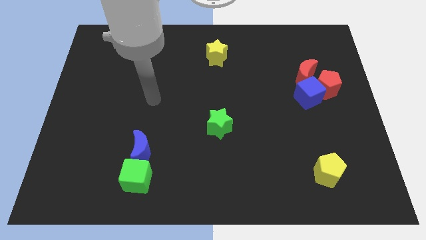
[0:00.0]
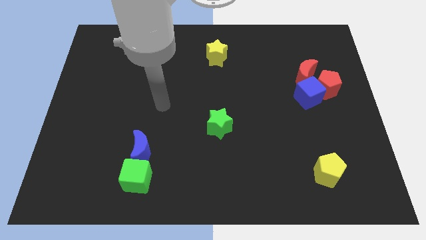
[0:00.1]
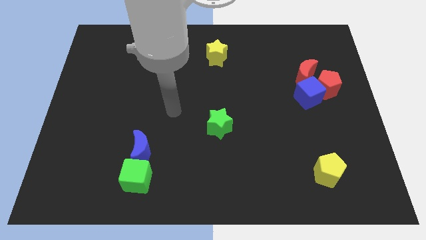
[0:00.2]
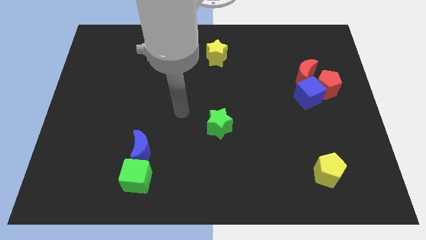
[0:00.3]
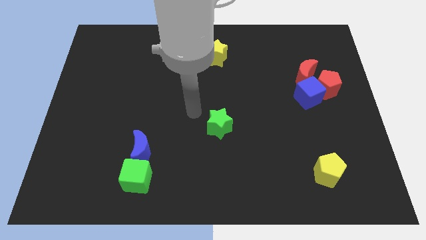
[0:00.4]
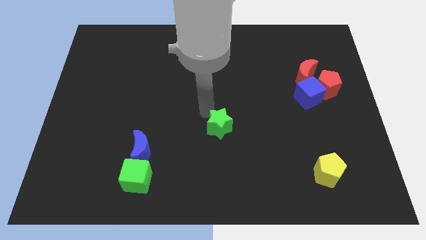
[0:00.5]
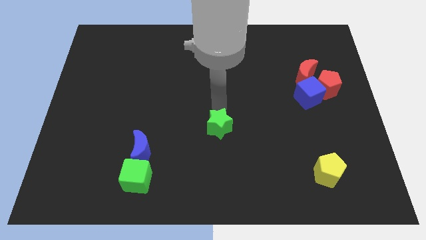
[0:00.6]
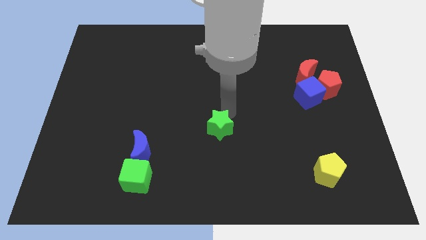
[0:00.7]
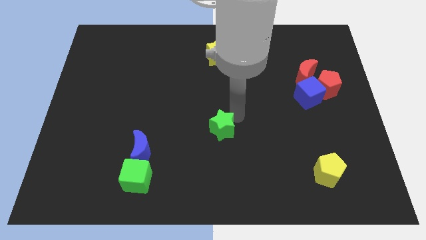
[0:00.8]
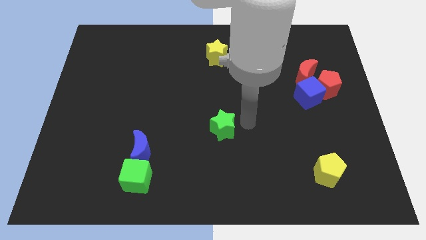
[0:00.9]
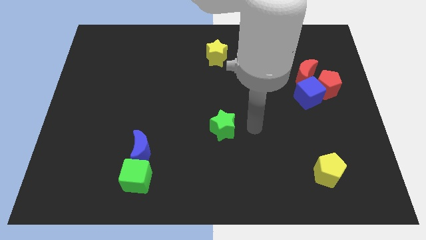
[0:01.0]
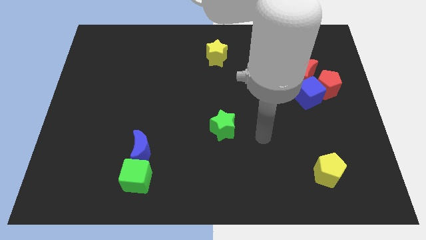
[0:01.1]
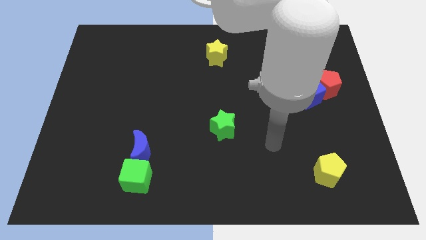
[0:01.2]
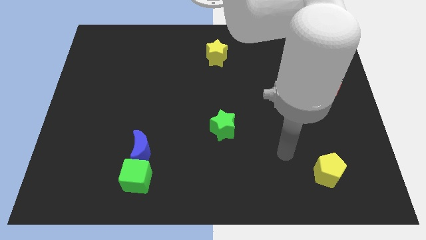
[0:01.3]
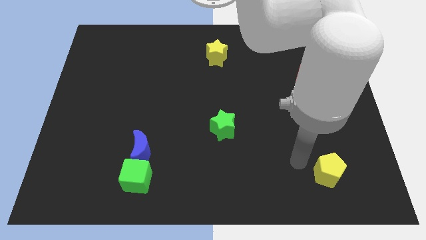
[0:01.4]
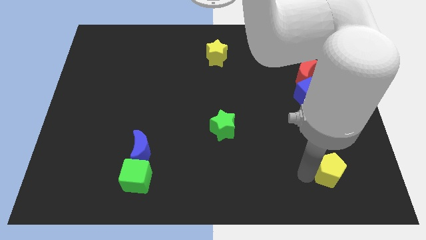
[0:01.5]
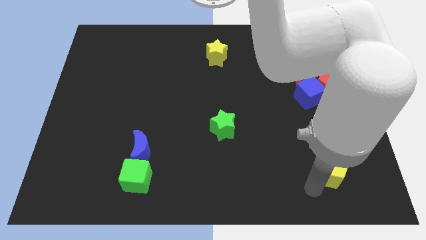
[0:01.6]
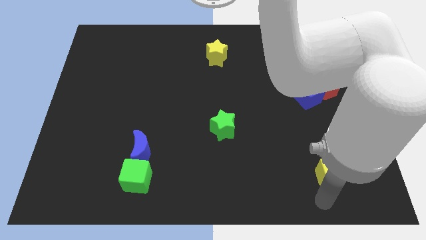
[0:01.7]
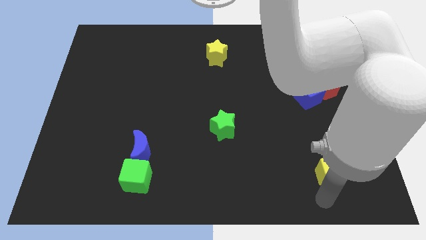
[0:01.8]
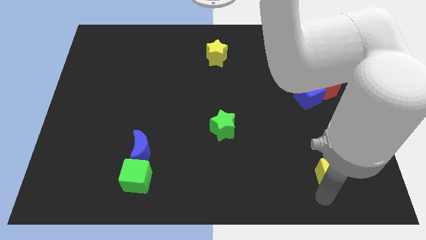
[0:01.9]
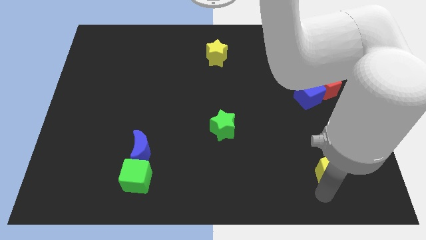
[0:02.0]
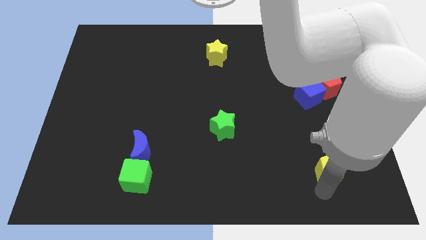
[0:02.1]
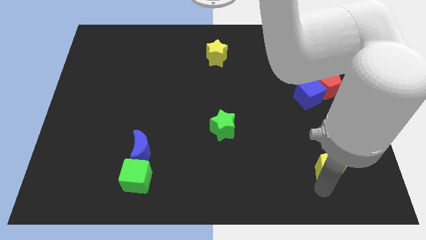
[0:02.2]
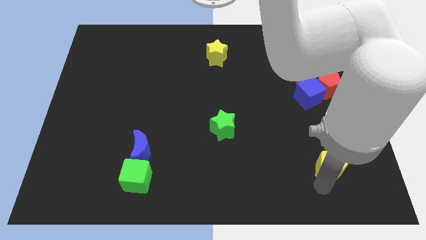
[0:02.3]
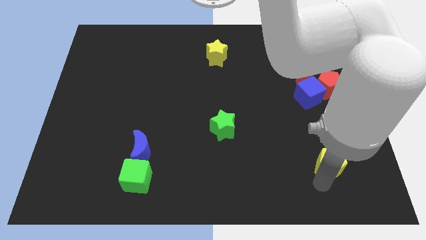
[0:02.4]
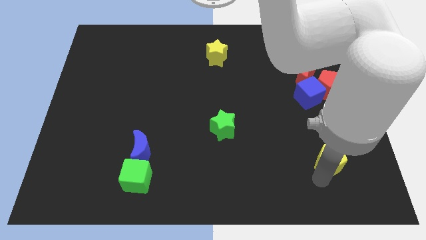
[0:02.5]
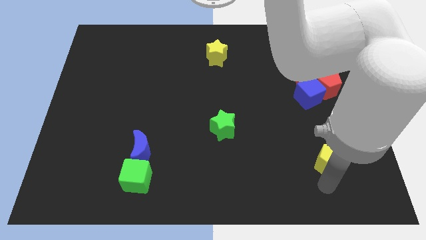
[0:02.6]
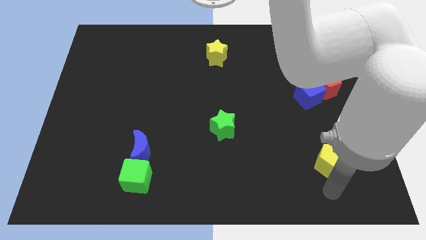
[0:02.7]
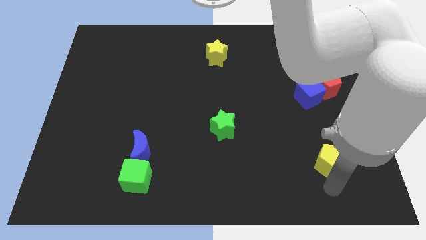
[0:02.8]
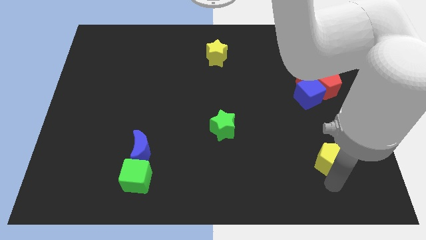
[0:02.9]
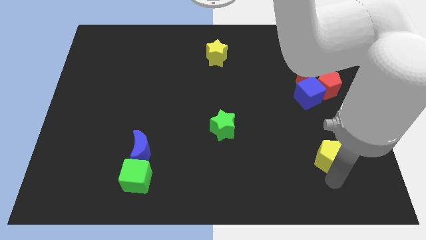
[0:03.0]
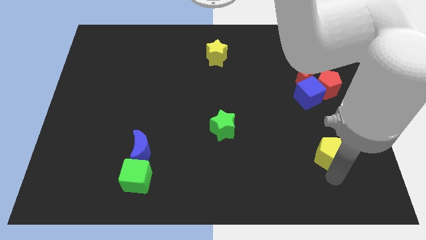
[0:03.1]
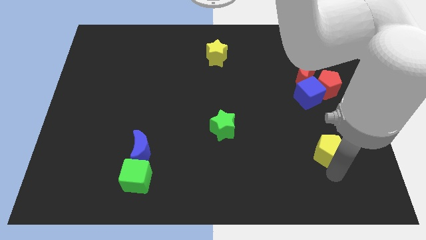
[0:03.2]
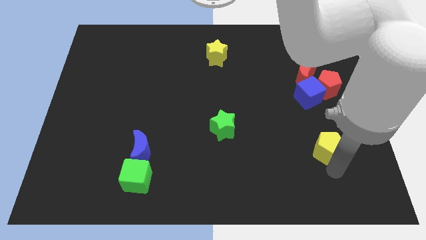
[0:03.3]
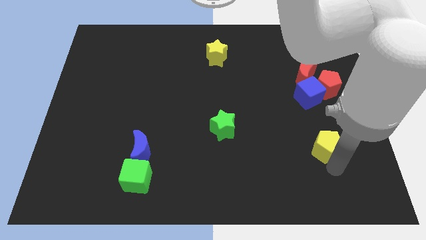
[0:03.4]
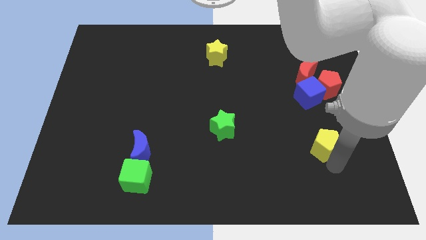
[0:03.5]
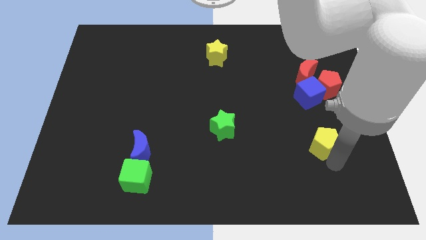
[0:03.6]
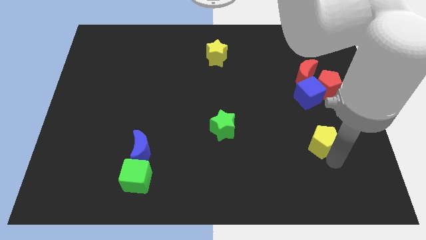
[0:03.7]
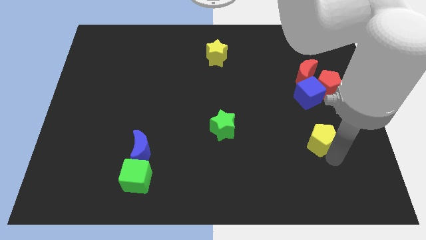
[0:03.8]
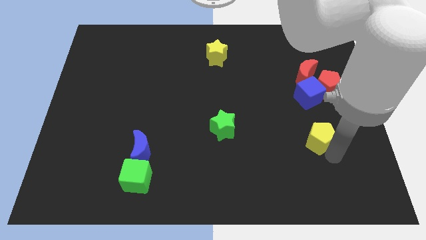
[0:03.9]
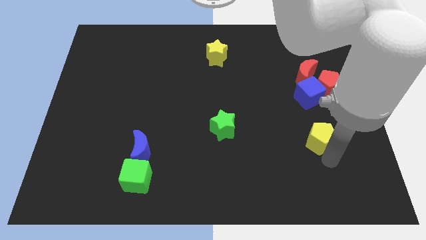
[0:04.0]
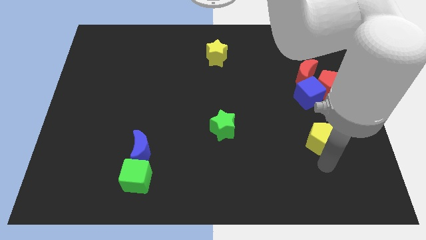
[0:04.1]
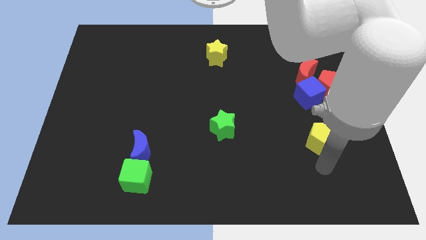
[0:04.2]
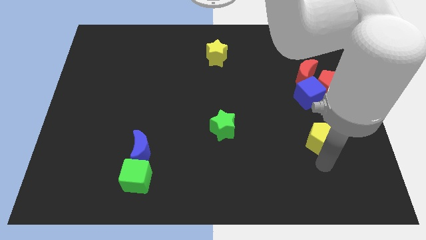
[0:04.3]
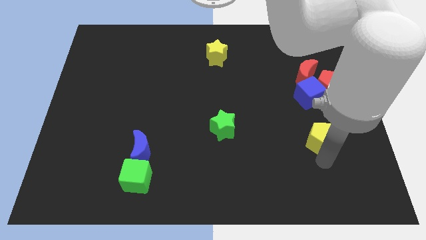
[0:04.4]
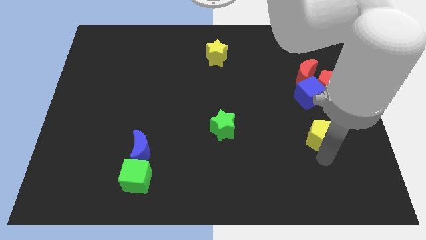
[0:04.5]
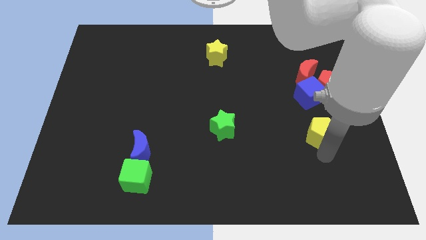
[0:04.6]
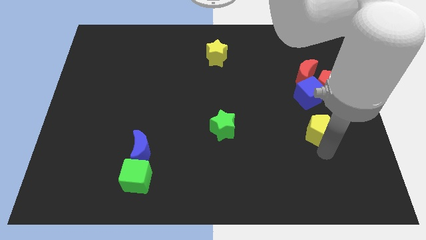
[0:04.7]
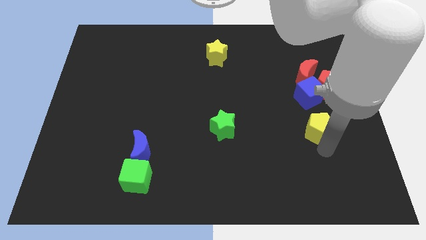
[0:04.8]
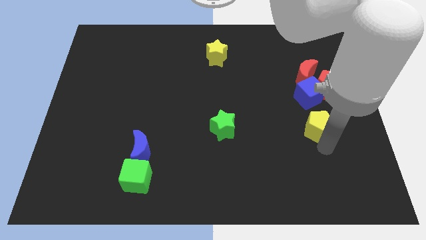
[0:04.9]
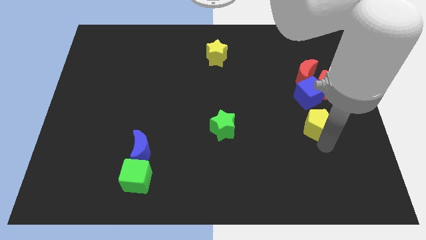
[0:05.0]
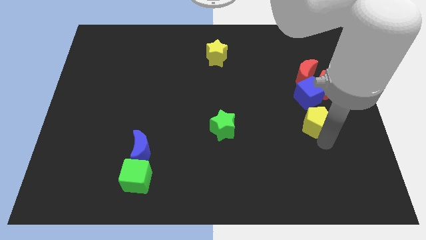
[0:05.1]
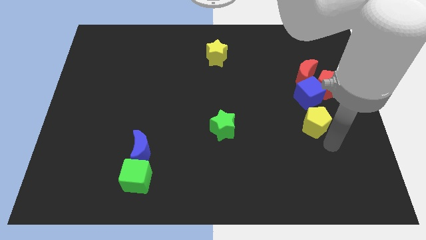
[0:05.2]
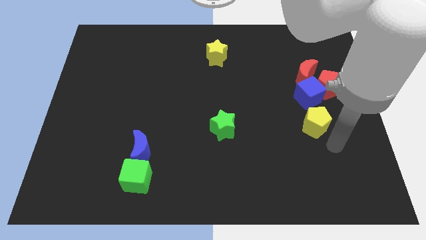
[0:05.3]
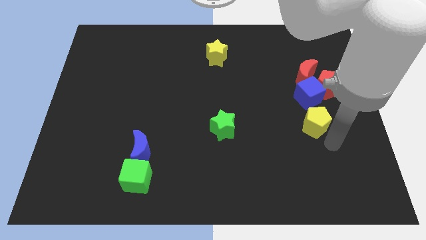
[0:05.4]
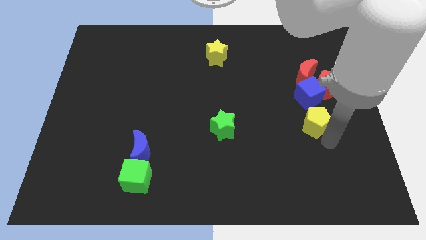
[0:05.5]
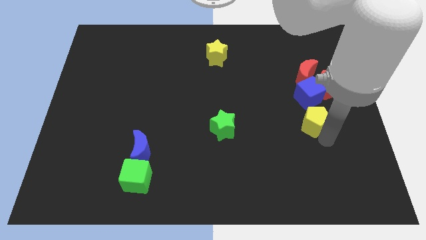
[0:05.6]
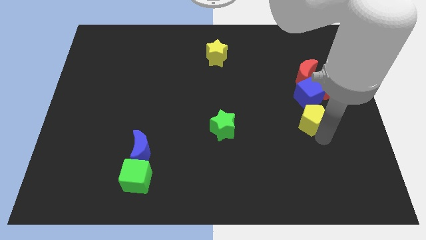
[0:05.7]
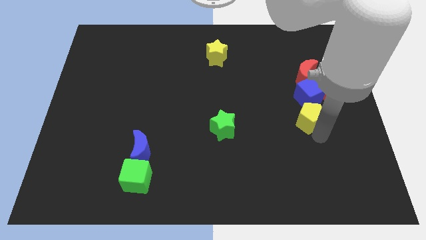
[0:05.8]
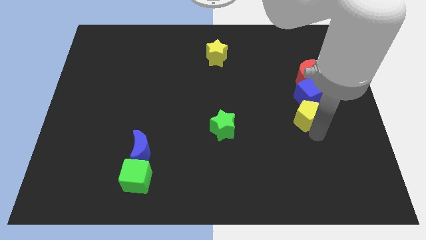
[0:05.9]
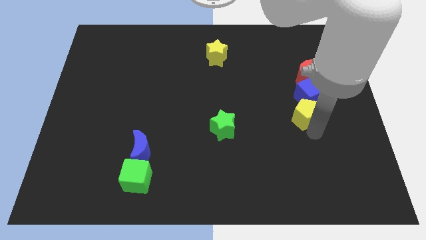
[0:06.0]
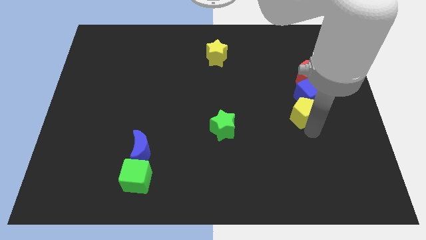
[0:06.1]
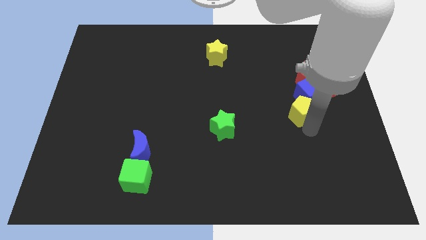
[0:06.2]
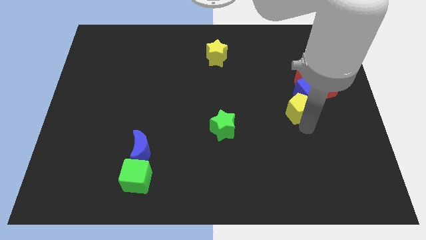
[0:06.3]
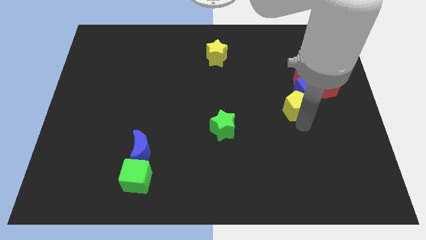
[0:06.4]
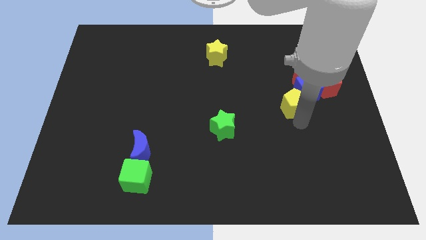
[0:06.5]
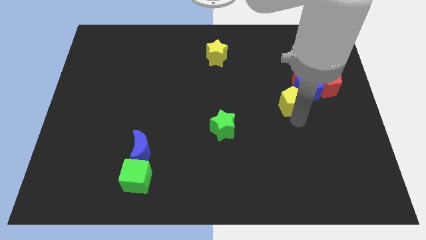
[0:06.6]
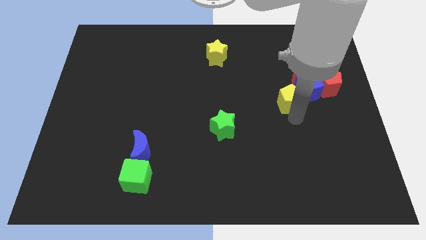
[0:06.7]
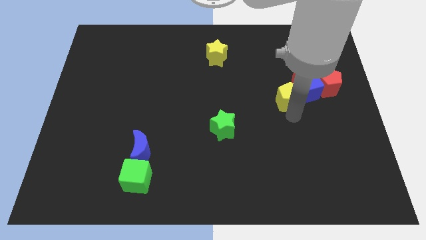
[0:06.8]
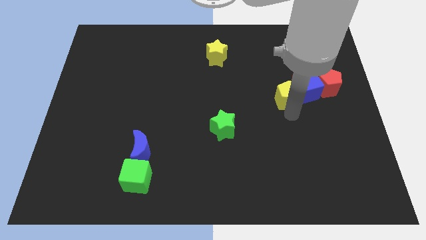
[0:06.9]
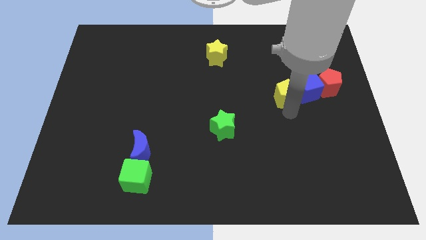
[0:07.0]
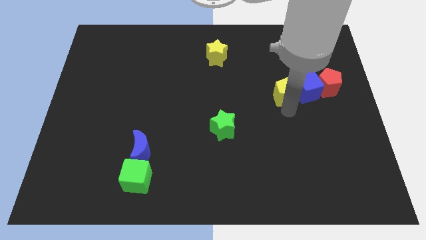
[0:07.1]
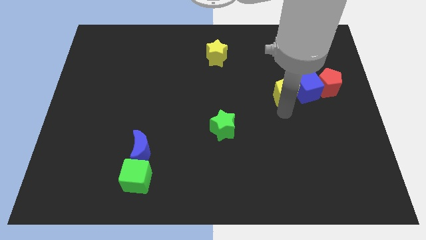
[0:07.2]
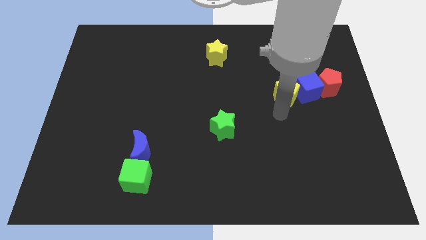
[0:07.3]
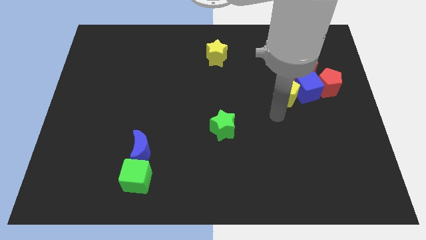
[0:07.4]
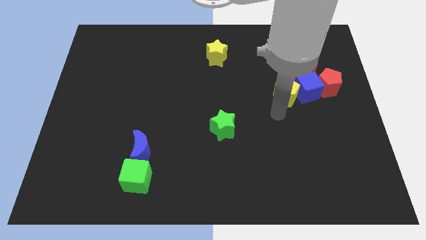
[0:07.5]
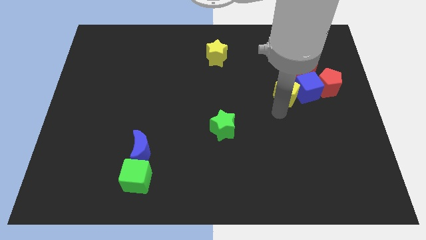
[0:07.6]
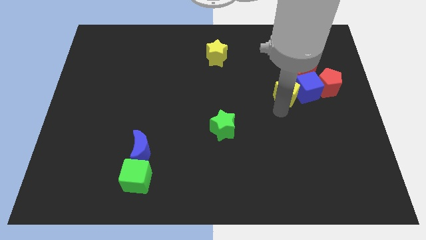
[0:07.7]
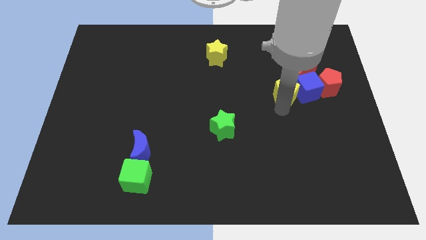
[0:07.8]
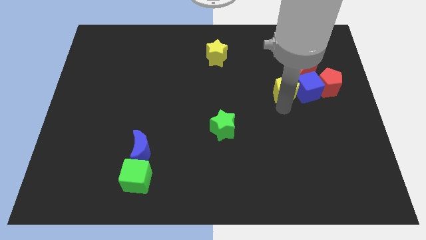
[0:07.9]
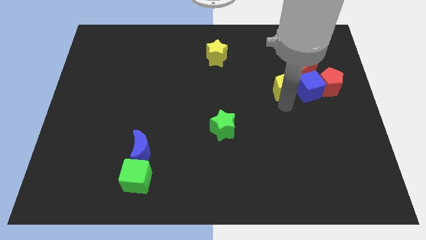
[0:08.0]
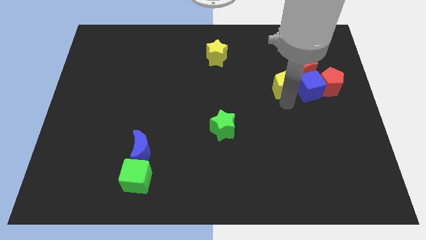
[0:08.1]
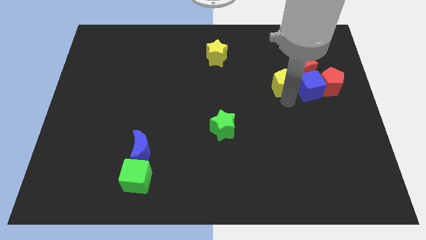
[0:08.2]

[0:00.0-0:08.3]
push the yellow pentagon towards the red moon
